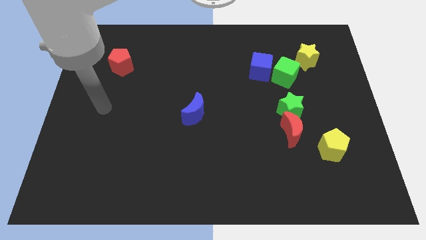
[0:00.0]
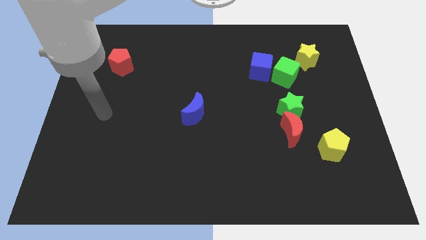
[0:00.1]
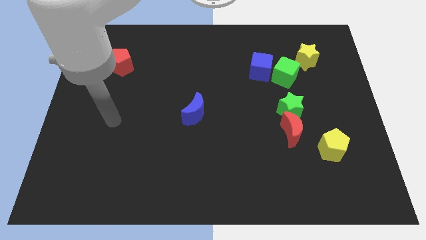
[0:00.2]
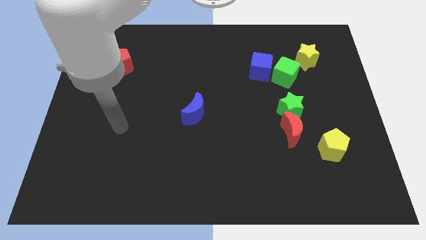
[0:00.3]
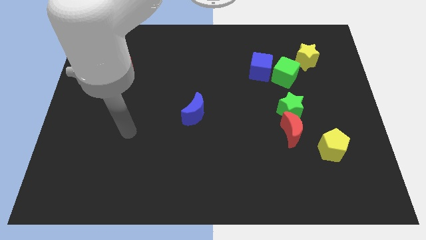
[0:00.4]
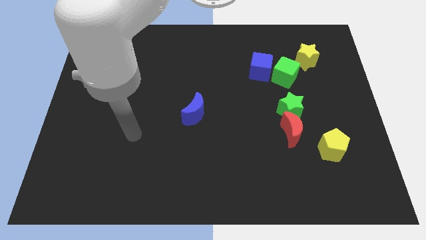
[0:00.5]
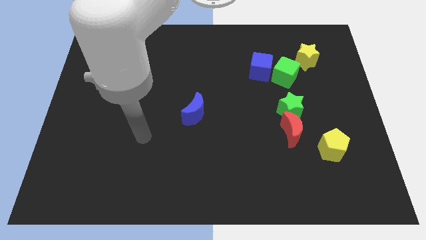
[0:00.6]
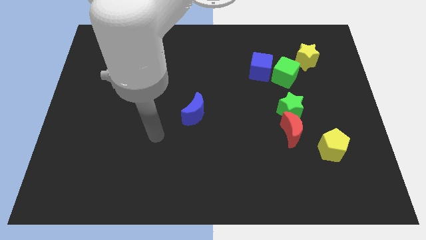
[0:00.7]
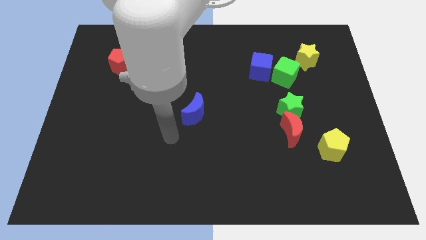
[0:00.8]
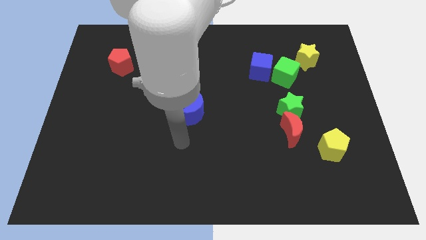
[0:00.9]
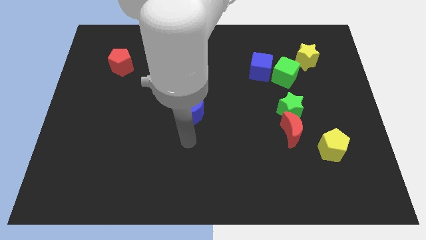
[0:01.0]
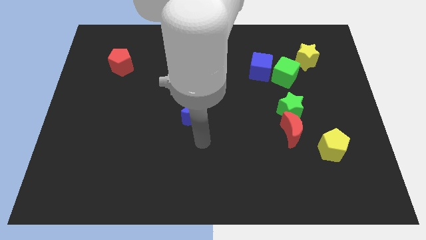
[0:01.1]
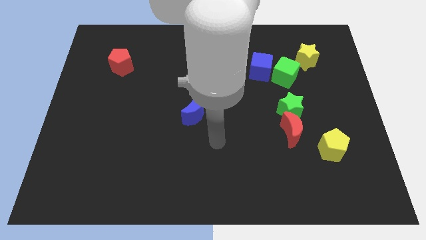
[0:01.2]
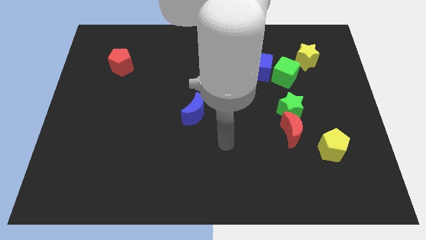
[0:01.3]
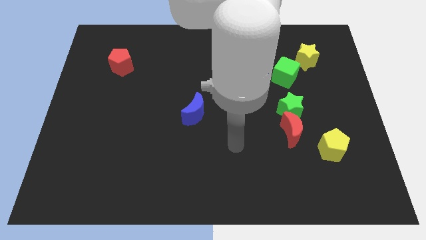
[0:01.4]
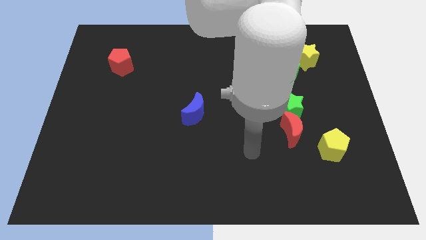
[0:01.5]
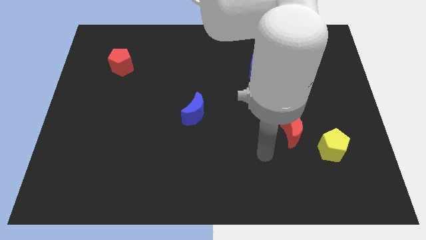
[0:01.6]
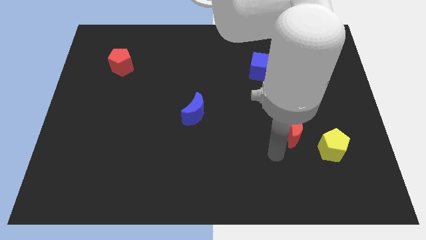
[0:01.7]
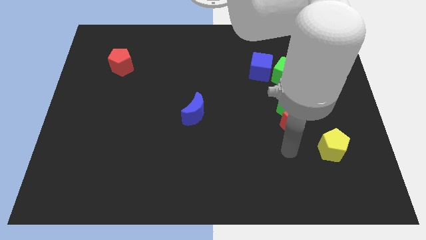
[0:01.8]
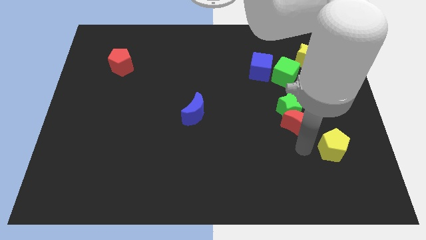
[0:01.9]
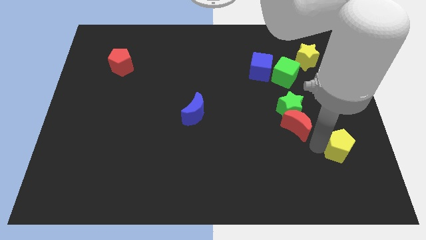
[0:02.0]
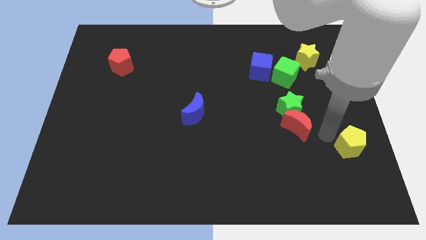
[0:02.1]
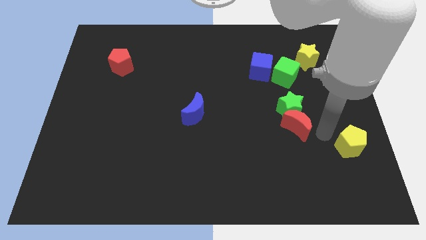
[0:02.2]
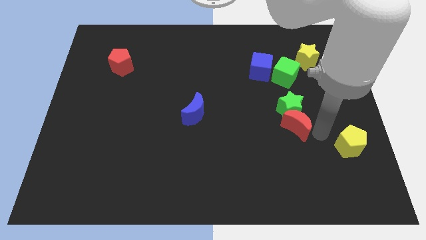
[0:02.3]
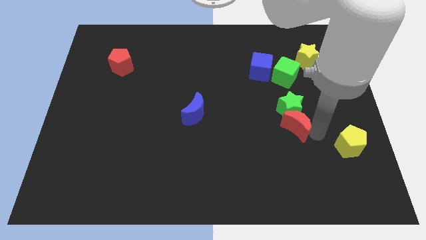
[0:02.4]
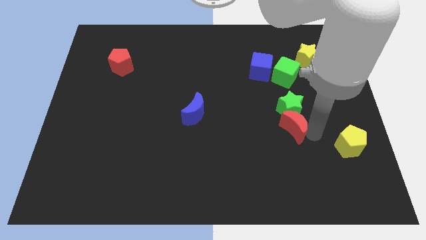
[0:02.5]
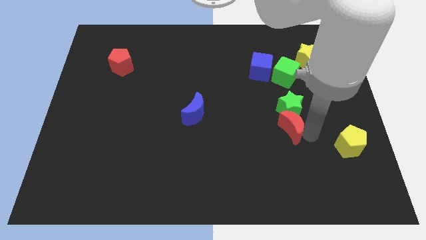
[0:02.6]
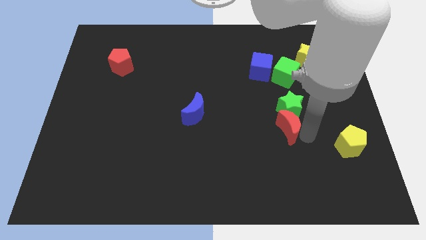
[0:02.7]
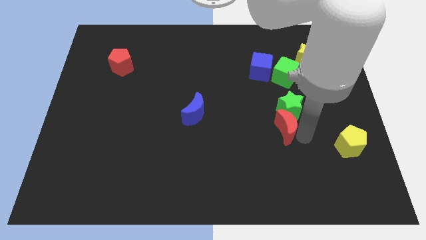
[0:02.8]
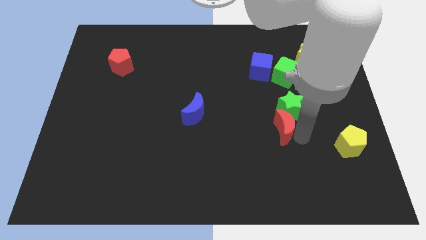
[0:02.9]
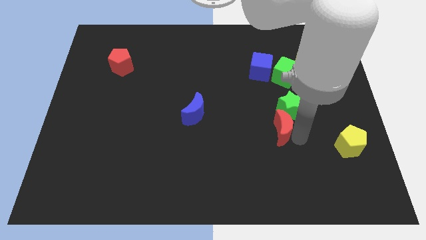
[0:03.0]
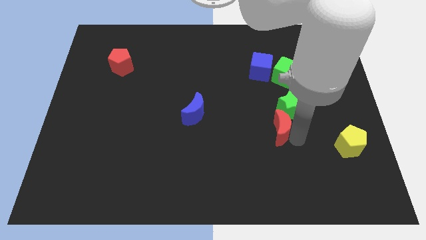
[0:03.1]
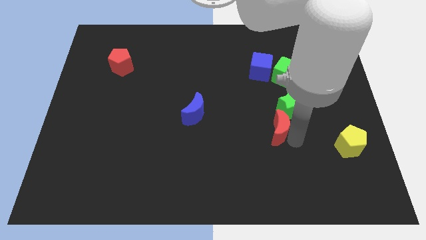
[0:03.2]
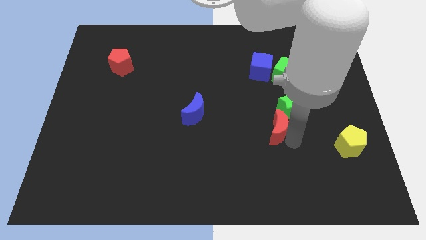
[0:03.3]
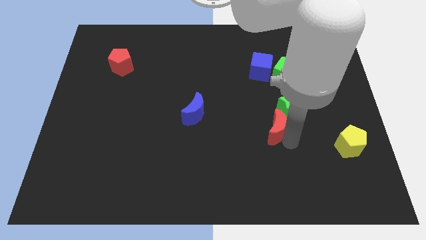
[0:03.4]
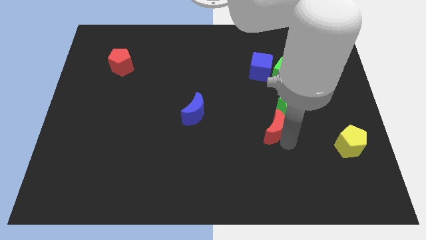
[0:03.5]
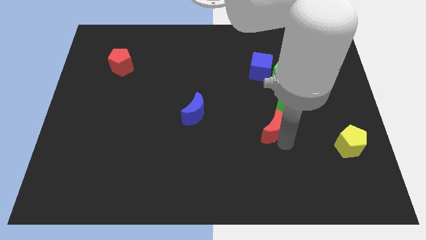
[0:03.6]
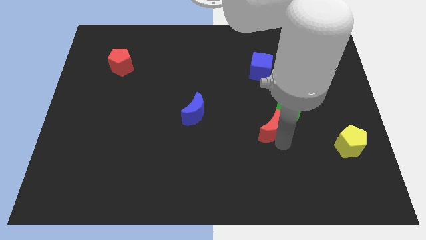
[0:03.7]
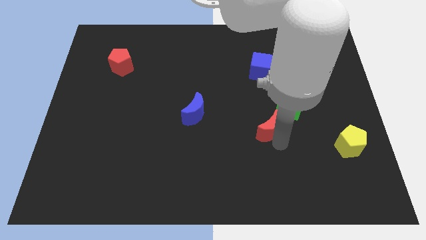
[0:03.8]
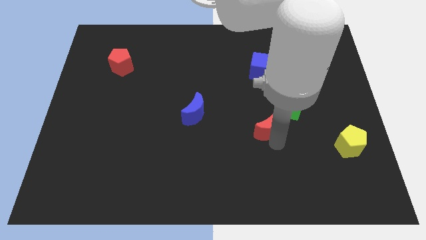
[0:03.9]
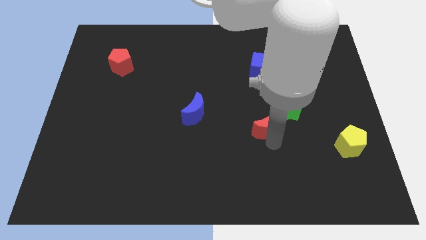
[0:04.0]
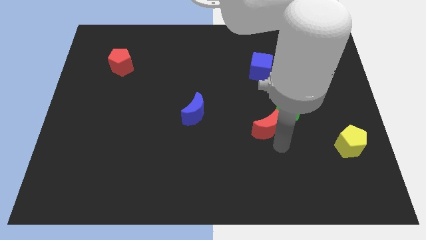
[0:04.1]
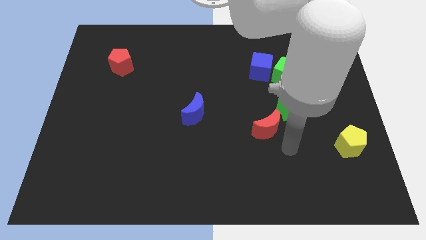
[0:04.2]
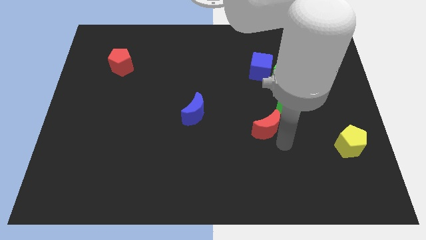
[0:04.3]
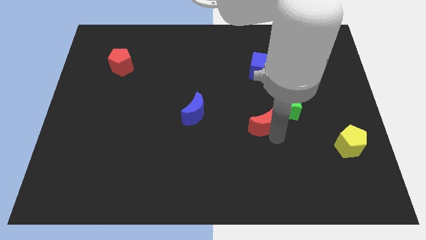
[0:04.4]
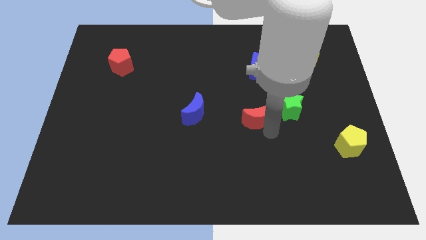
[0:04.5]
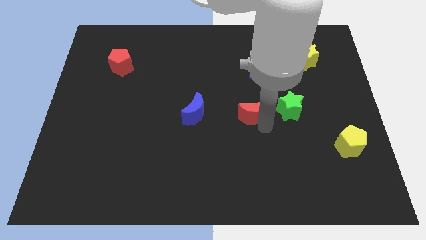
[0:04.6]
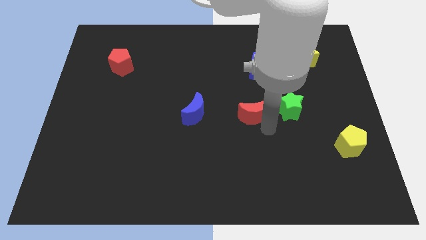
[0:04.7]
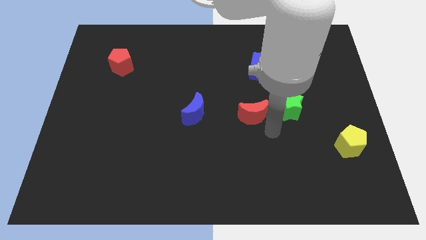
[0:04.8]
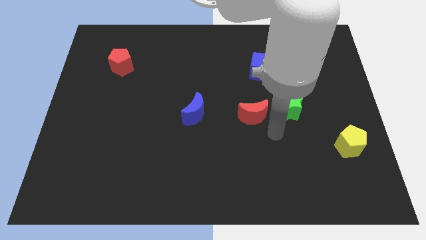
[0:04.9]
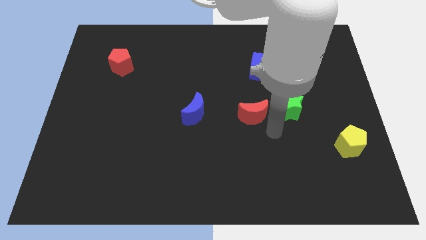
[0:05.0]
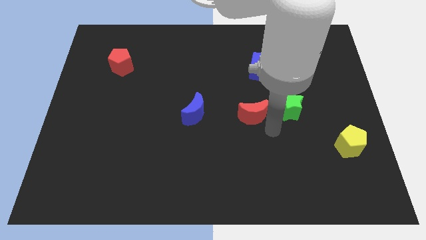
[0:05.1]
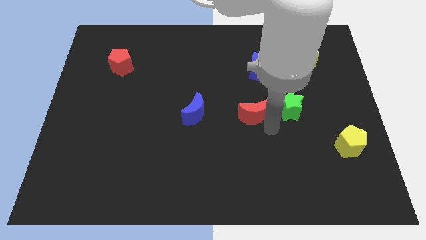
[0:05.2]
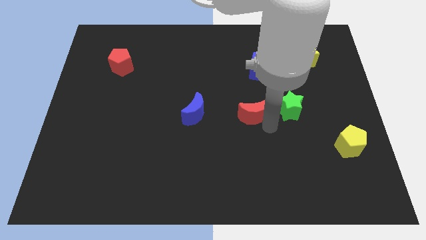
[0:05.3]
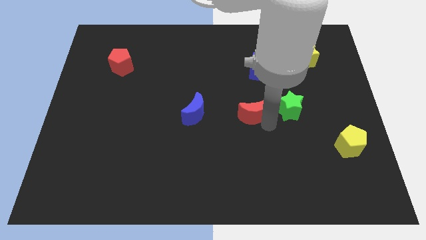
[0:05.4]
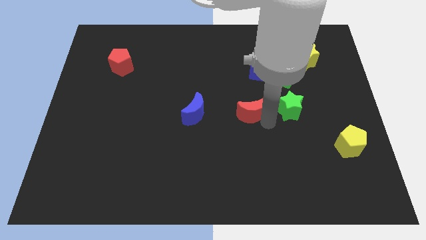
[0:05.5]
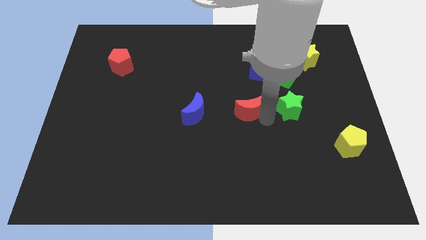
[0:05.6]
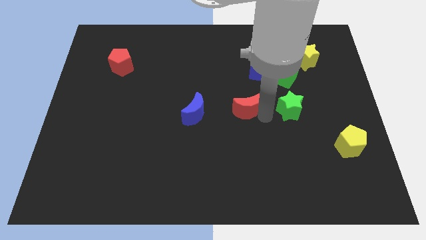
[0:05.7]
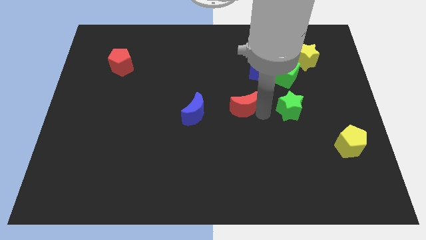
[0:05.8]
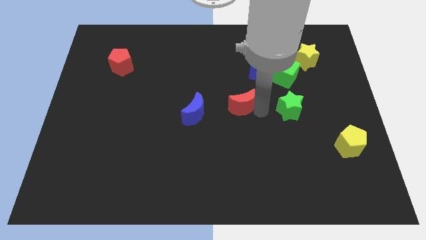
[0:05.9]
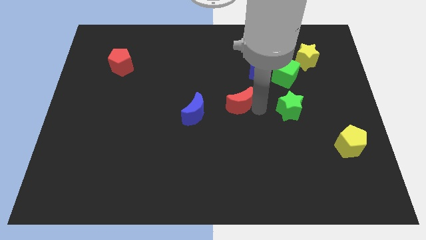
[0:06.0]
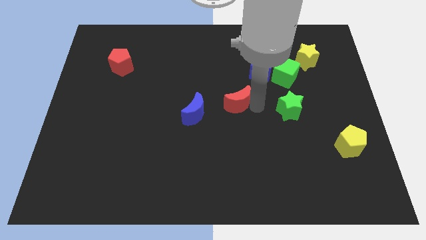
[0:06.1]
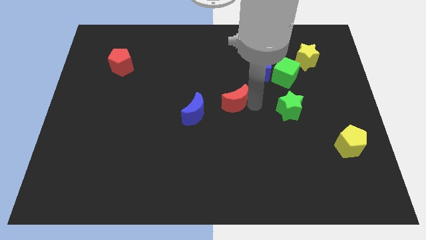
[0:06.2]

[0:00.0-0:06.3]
push the red moon diagonally up and to the right of the blue moon

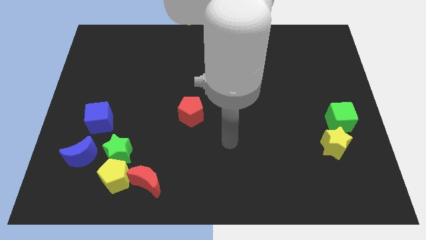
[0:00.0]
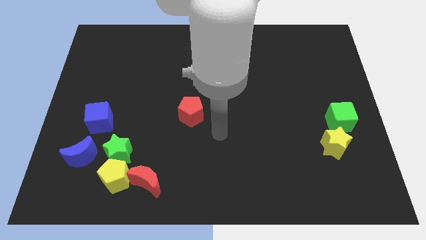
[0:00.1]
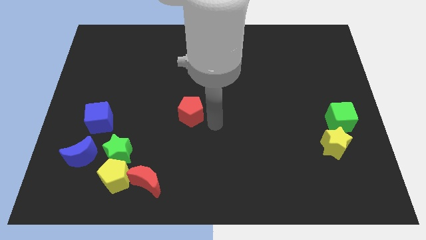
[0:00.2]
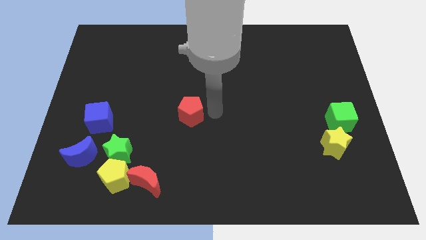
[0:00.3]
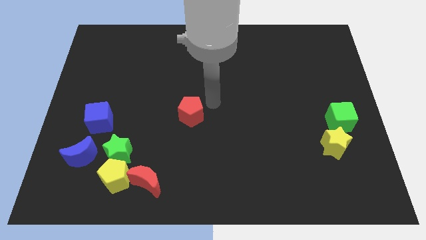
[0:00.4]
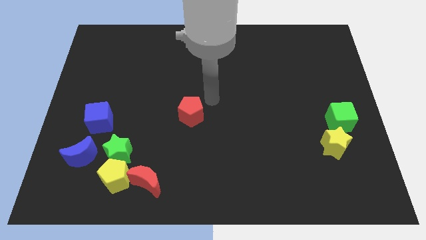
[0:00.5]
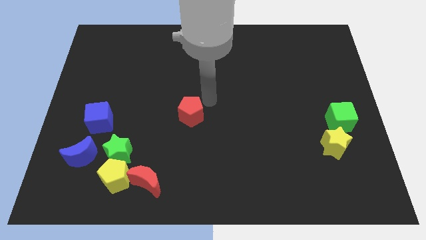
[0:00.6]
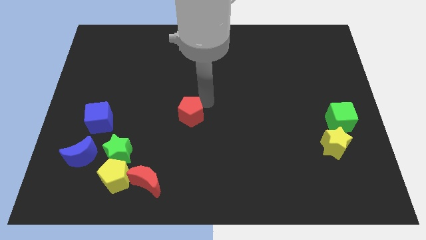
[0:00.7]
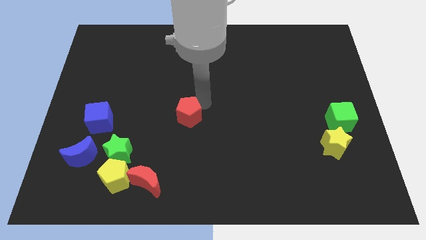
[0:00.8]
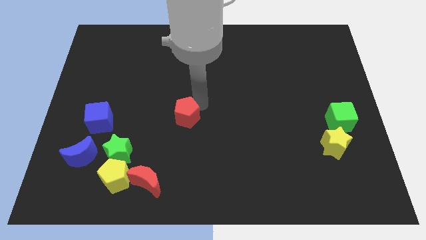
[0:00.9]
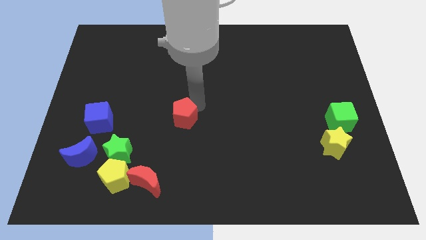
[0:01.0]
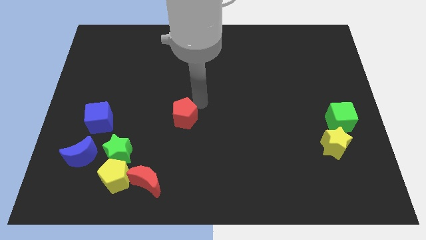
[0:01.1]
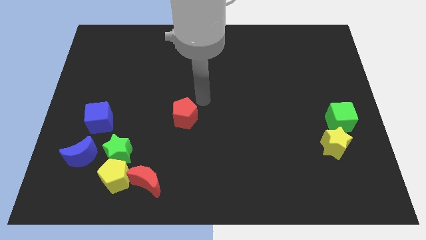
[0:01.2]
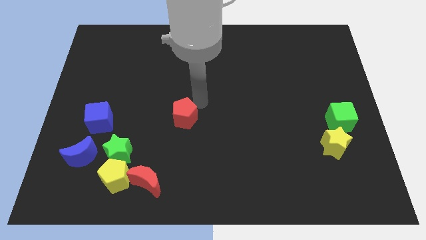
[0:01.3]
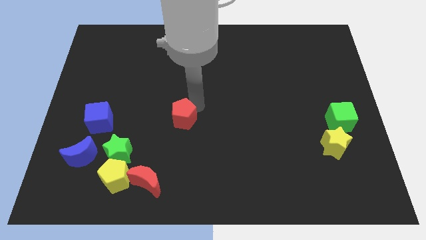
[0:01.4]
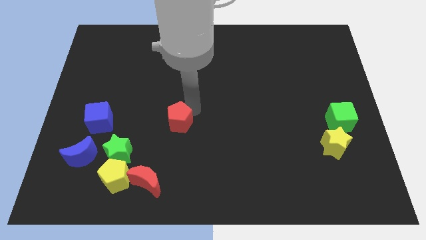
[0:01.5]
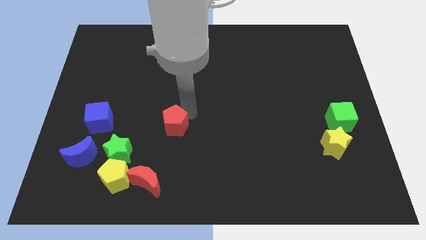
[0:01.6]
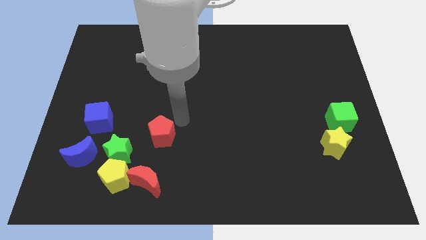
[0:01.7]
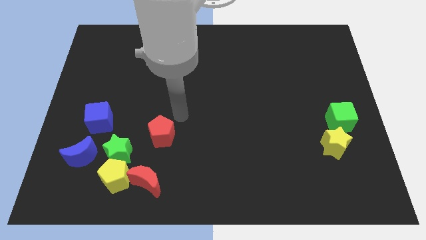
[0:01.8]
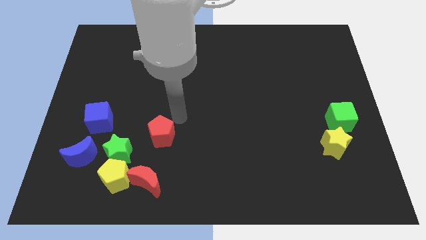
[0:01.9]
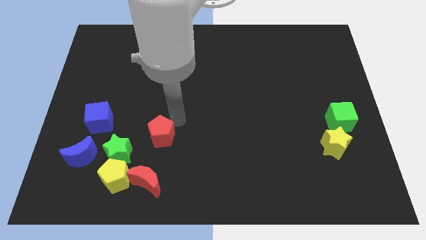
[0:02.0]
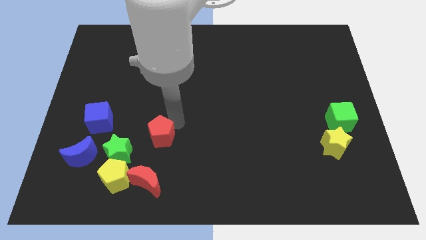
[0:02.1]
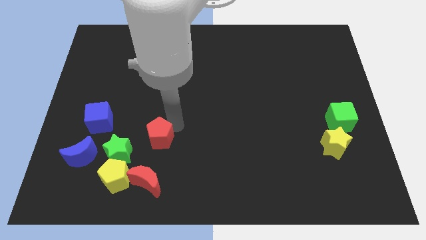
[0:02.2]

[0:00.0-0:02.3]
slide the red pentagon to the top right of the yellow pentagon
